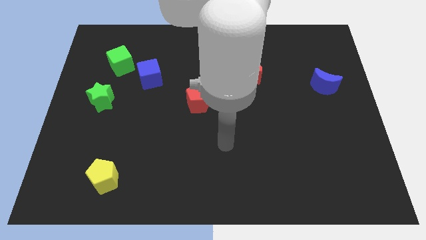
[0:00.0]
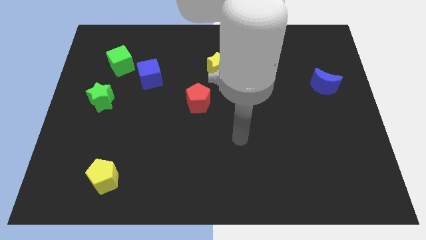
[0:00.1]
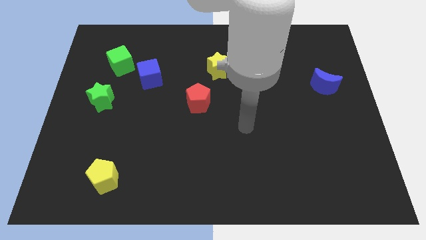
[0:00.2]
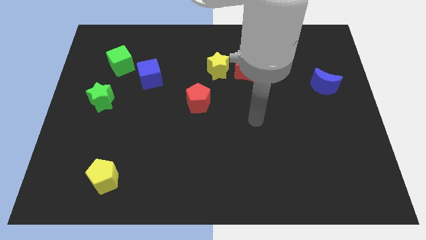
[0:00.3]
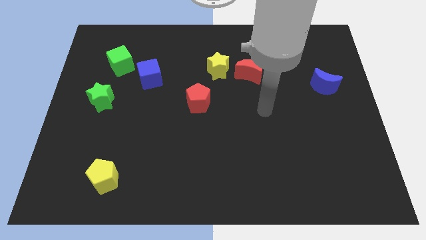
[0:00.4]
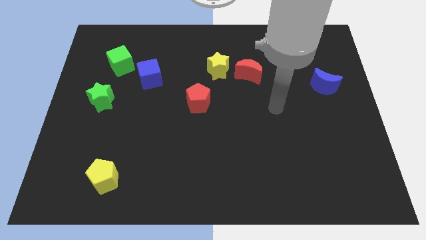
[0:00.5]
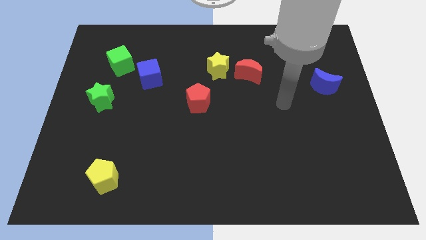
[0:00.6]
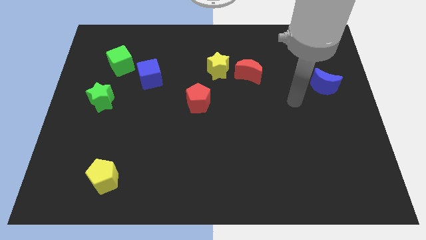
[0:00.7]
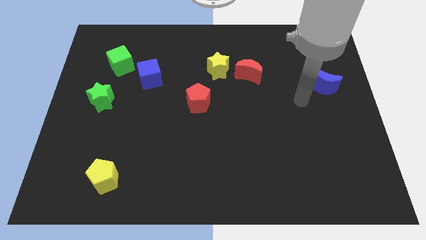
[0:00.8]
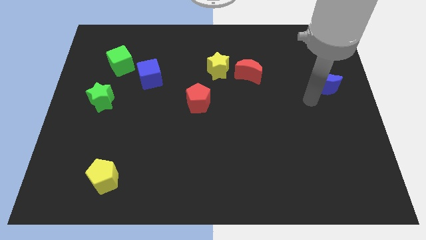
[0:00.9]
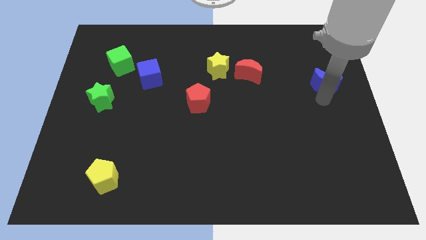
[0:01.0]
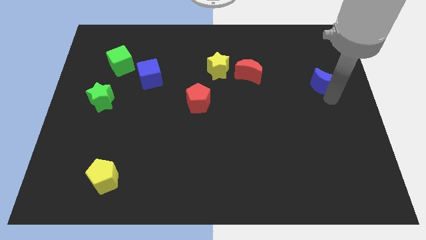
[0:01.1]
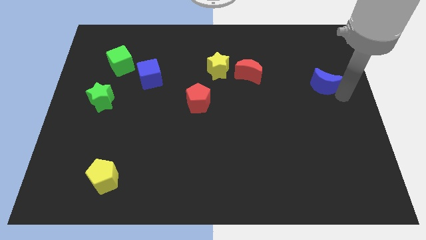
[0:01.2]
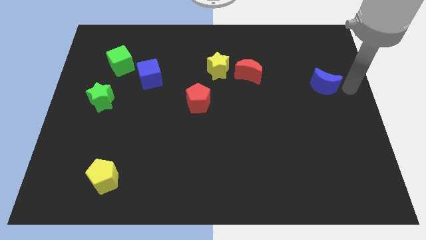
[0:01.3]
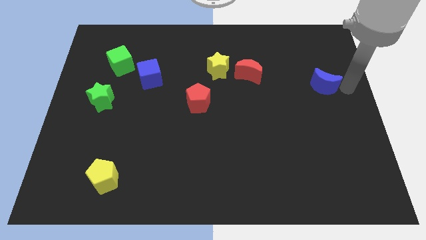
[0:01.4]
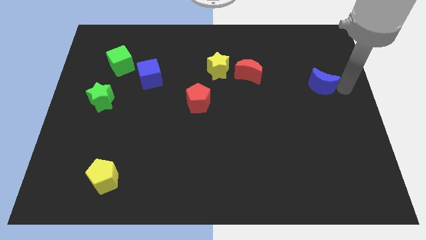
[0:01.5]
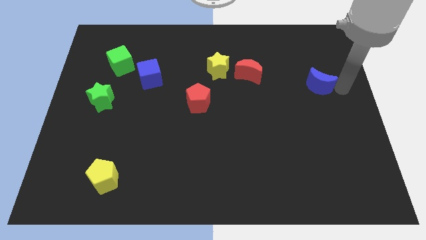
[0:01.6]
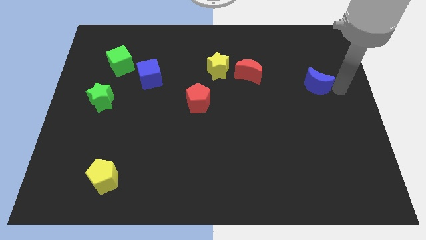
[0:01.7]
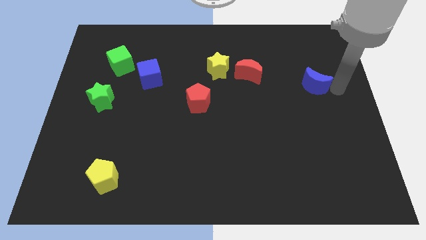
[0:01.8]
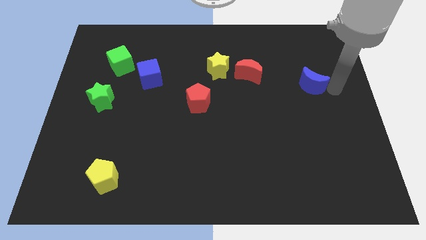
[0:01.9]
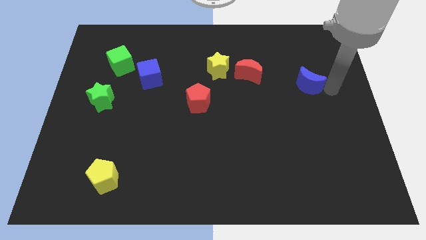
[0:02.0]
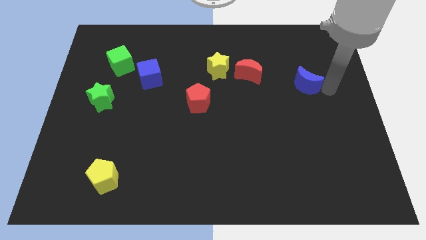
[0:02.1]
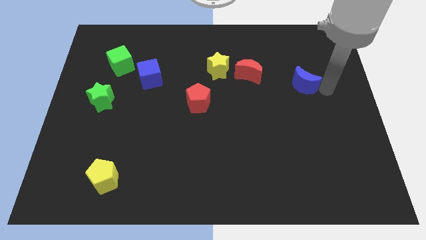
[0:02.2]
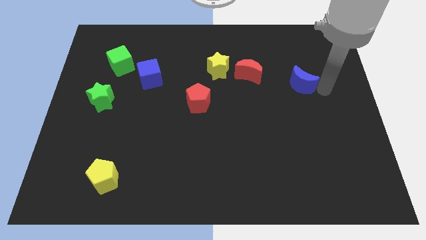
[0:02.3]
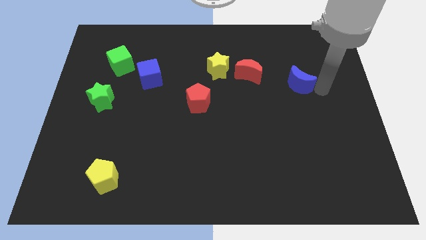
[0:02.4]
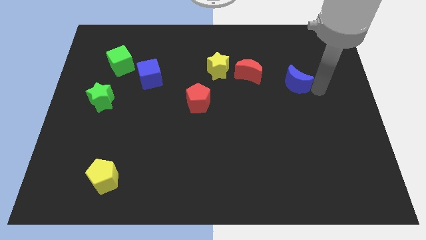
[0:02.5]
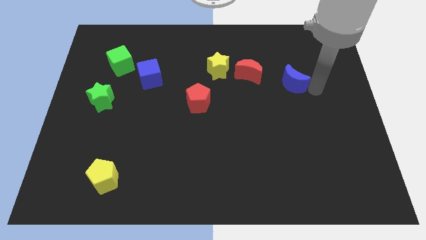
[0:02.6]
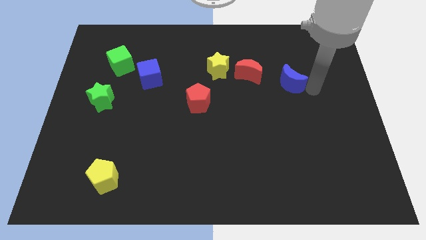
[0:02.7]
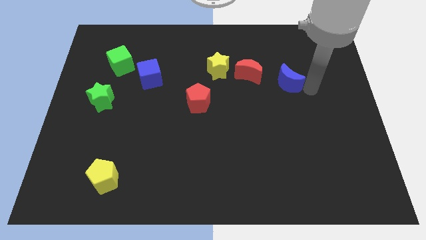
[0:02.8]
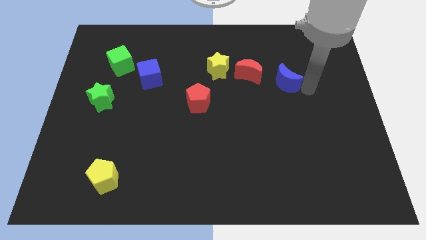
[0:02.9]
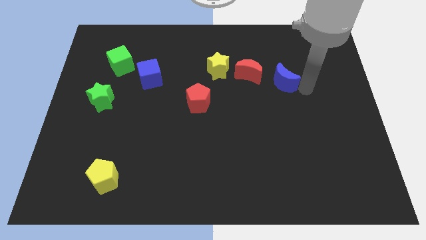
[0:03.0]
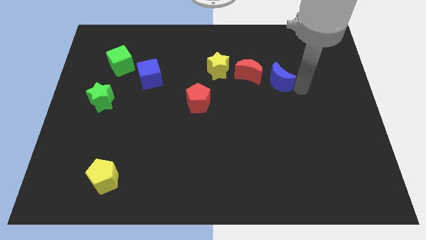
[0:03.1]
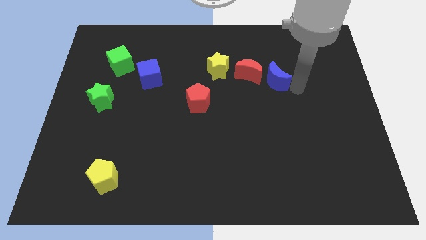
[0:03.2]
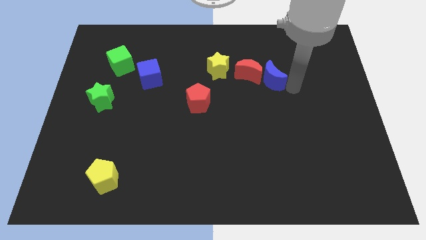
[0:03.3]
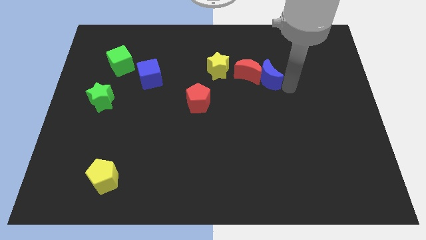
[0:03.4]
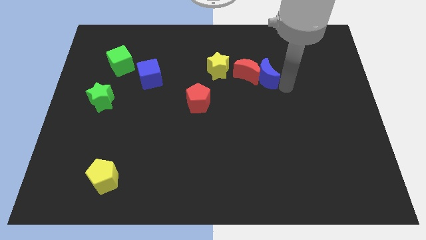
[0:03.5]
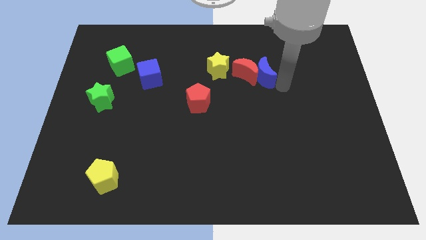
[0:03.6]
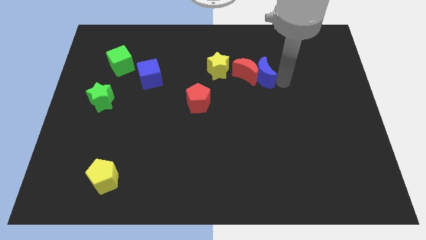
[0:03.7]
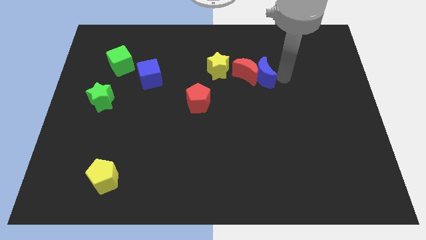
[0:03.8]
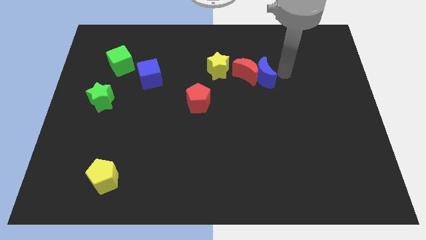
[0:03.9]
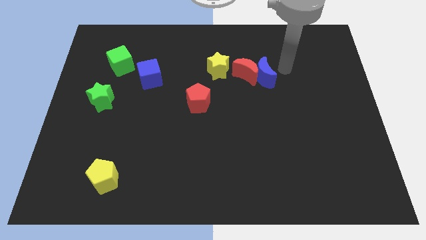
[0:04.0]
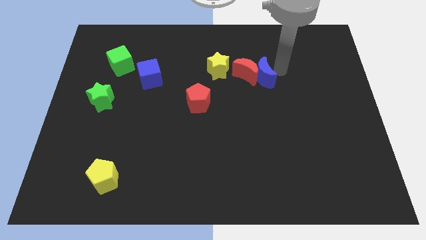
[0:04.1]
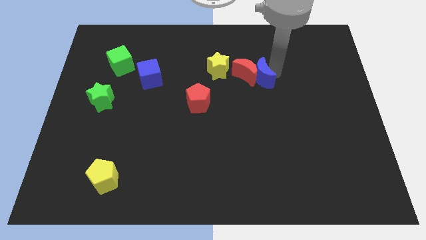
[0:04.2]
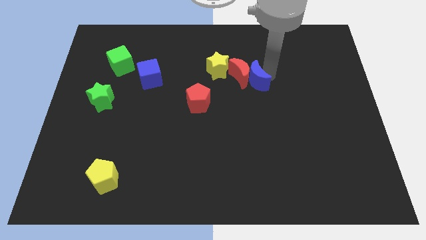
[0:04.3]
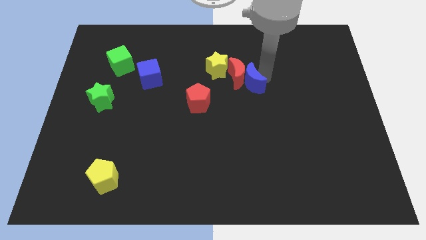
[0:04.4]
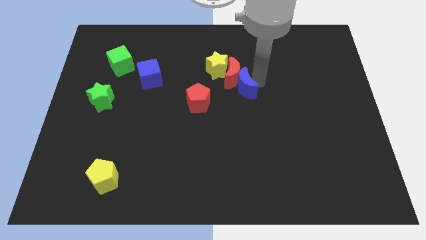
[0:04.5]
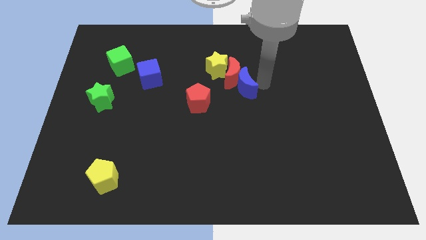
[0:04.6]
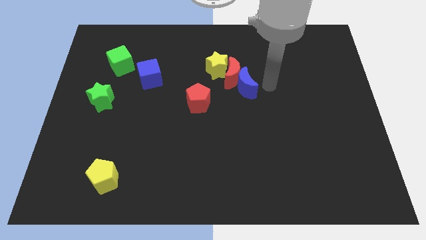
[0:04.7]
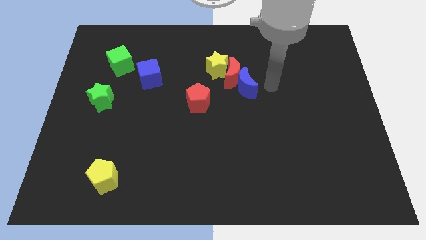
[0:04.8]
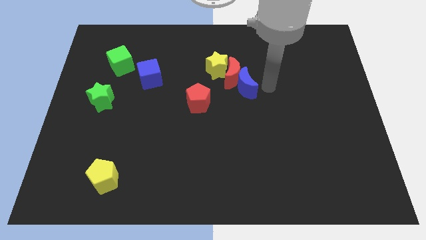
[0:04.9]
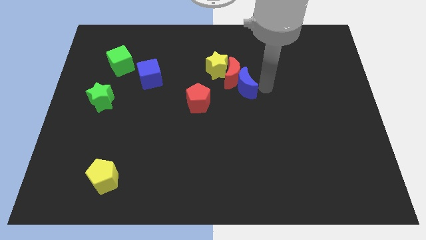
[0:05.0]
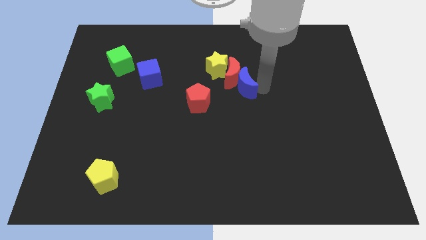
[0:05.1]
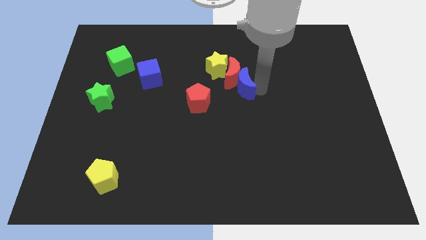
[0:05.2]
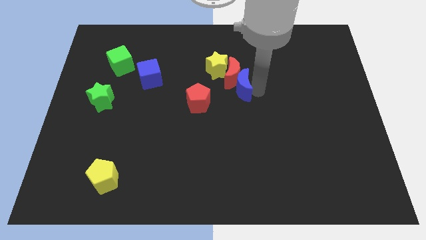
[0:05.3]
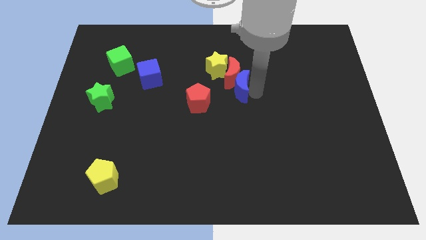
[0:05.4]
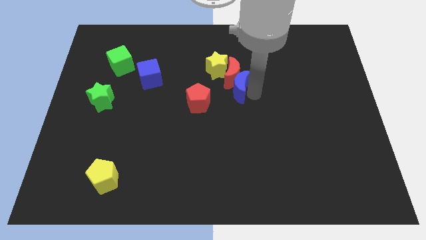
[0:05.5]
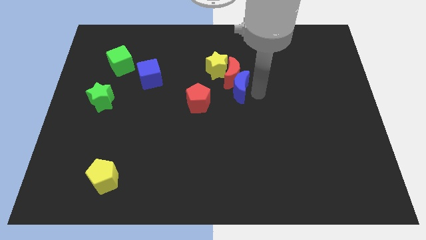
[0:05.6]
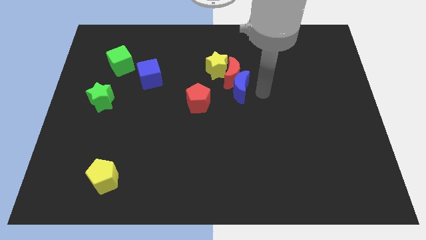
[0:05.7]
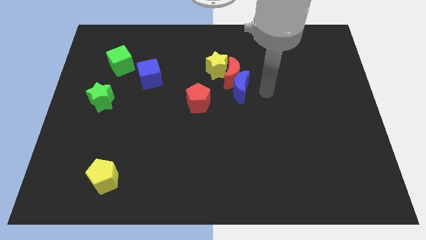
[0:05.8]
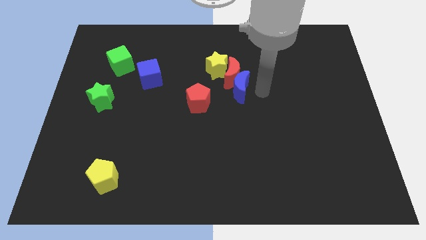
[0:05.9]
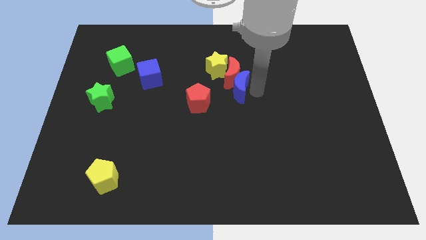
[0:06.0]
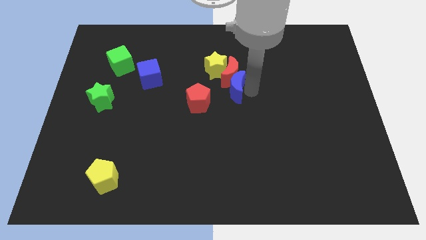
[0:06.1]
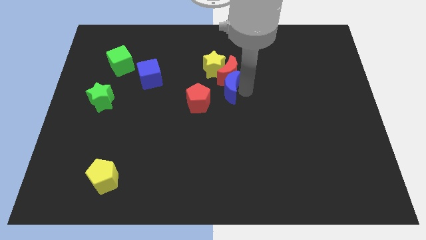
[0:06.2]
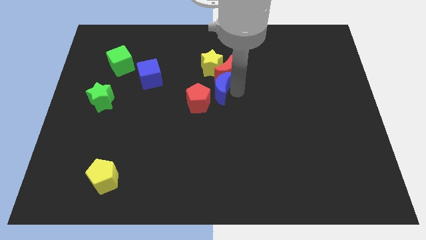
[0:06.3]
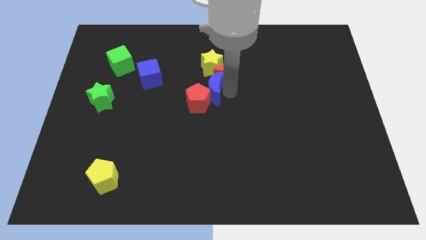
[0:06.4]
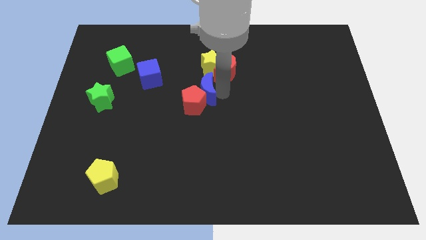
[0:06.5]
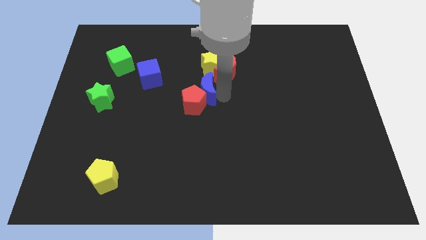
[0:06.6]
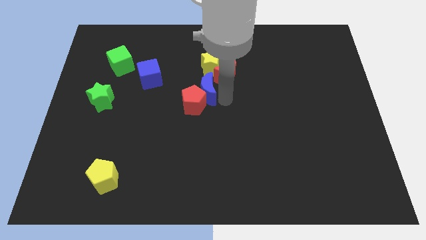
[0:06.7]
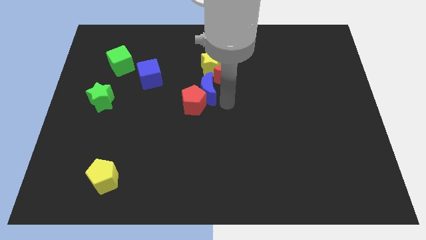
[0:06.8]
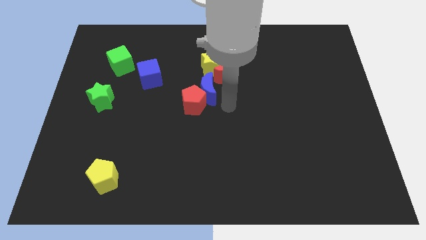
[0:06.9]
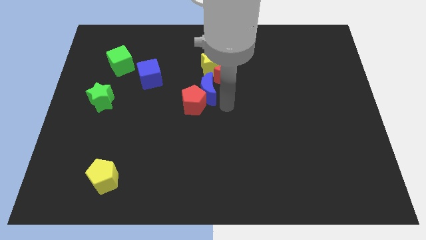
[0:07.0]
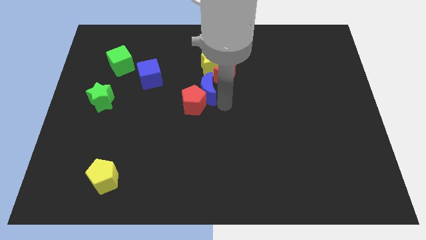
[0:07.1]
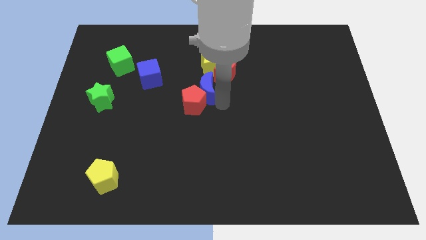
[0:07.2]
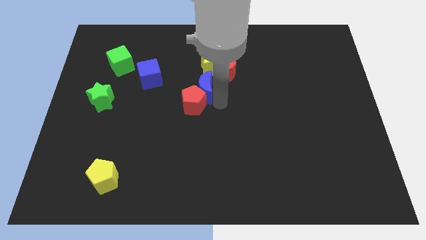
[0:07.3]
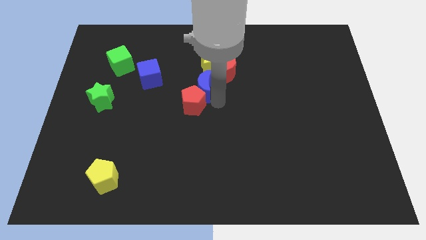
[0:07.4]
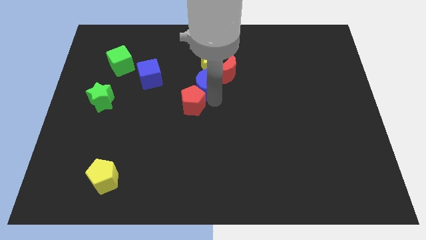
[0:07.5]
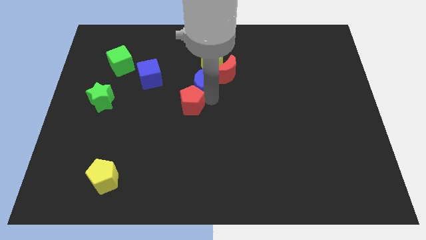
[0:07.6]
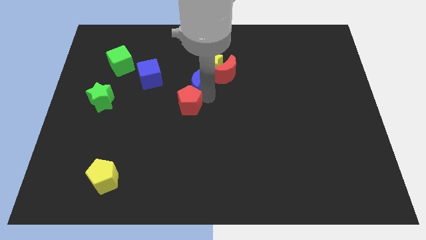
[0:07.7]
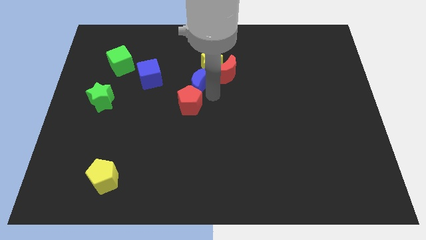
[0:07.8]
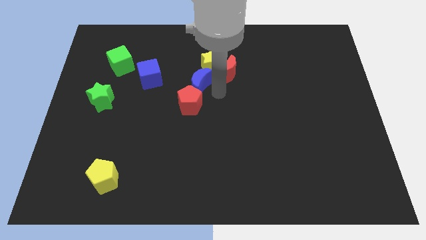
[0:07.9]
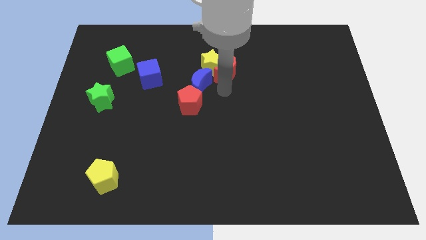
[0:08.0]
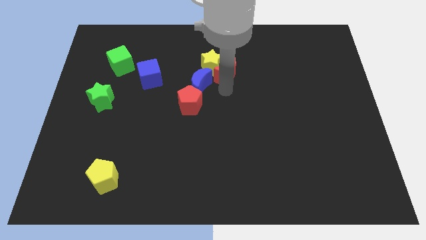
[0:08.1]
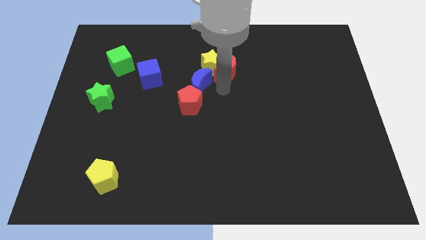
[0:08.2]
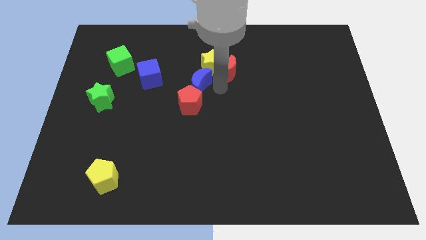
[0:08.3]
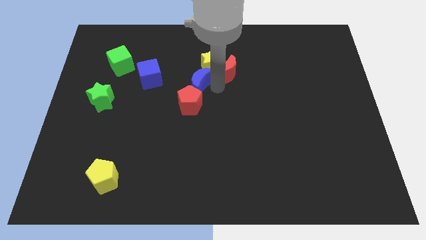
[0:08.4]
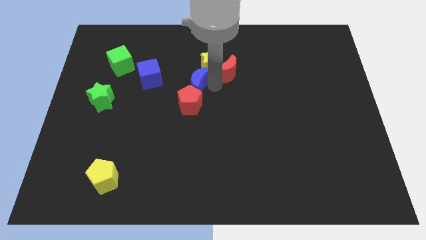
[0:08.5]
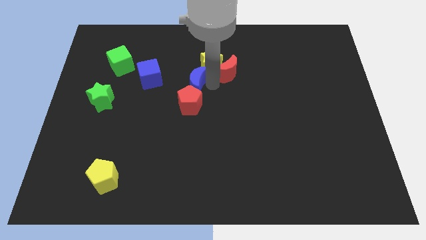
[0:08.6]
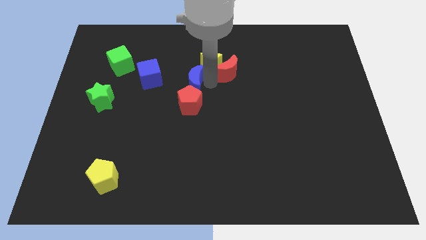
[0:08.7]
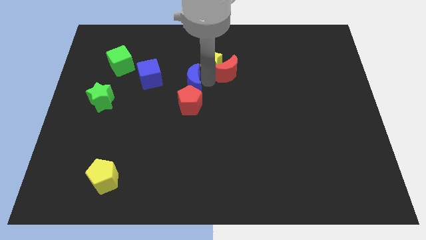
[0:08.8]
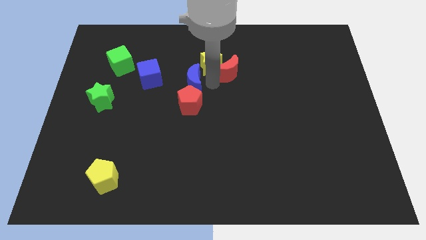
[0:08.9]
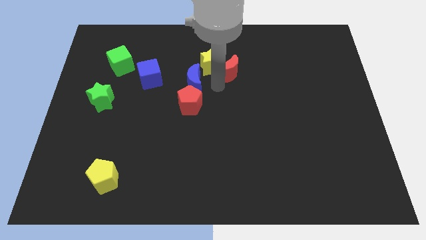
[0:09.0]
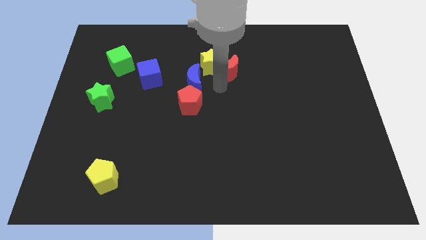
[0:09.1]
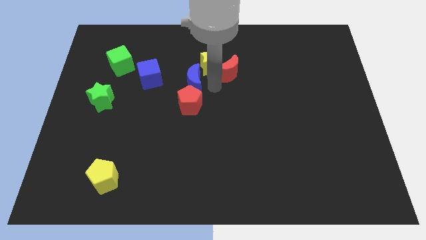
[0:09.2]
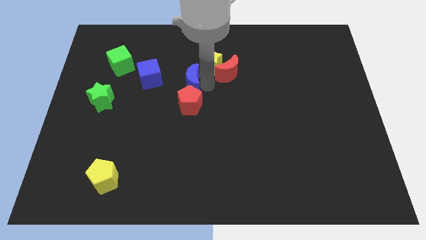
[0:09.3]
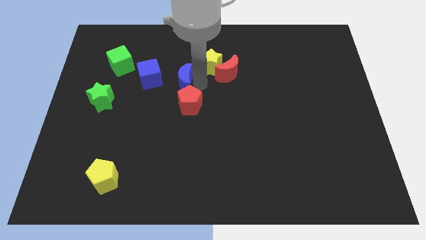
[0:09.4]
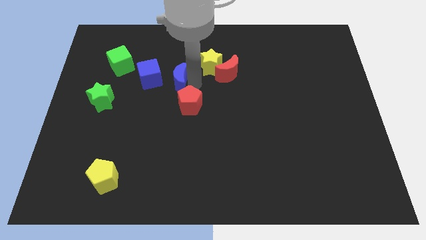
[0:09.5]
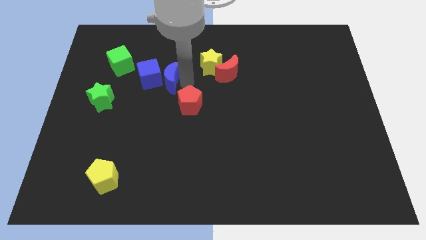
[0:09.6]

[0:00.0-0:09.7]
put the blue moon next to the blue cube
